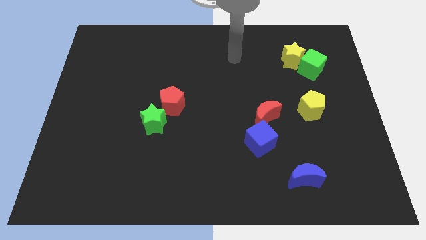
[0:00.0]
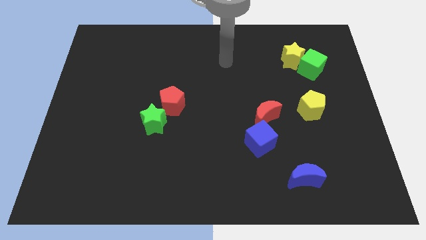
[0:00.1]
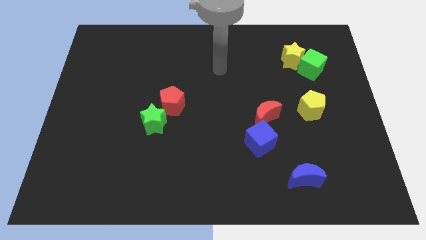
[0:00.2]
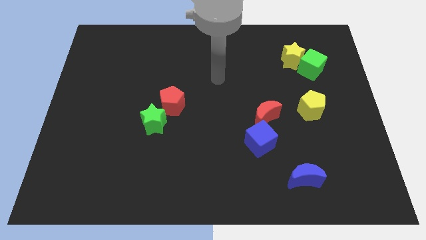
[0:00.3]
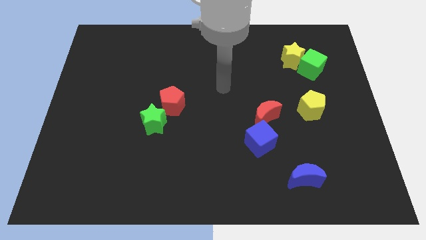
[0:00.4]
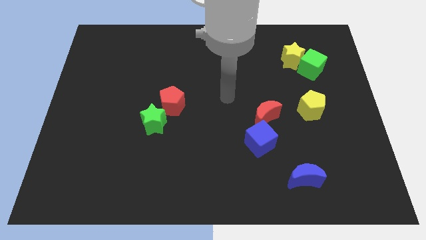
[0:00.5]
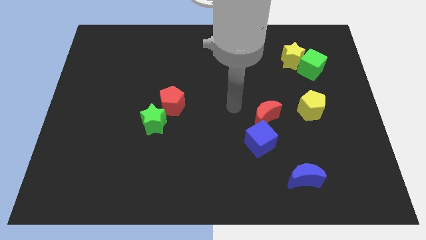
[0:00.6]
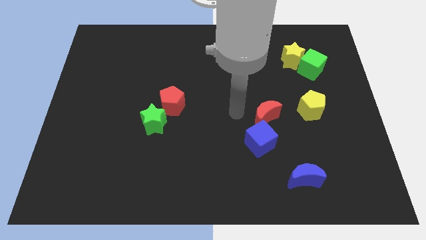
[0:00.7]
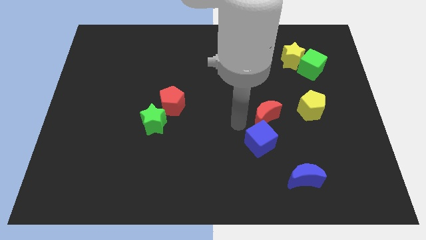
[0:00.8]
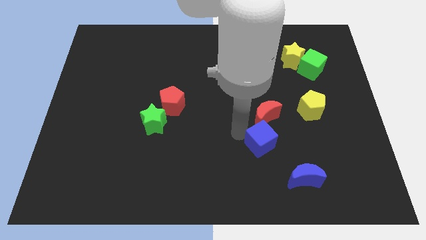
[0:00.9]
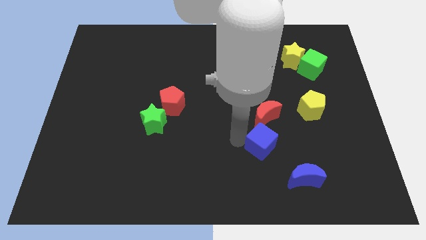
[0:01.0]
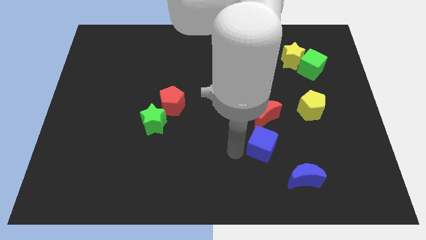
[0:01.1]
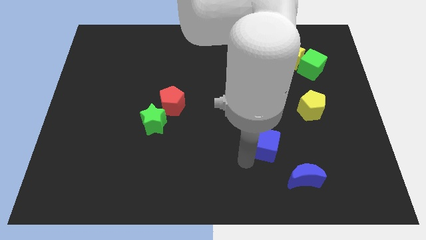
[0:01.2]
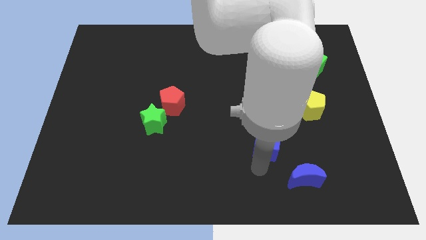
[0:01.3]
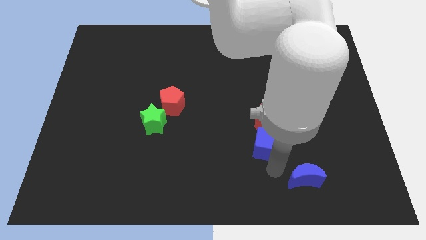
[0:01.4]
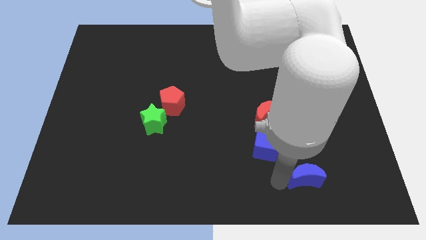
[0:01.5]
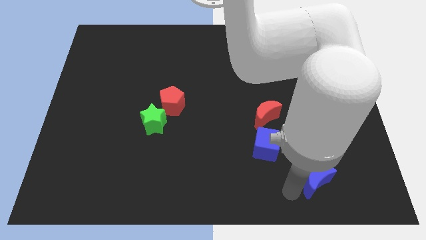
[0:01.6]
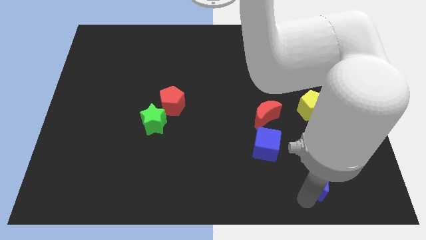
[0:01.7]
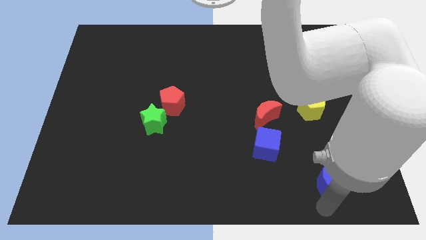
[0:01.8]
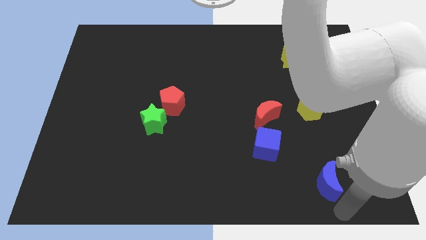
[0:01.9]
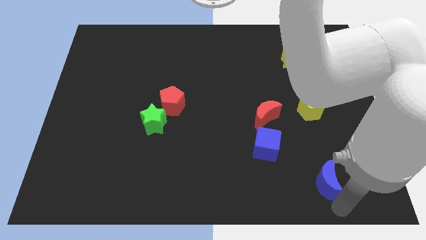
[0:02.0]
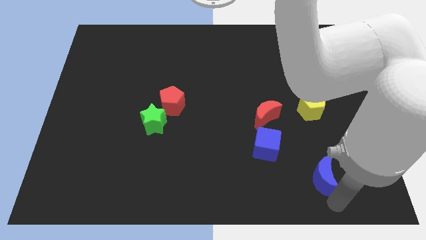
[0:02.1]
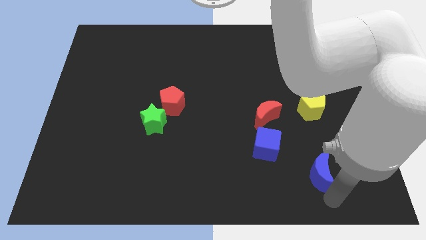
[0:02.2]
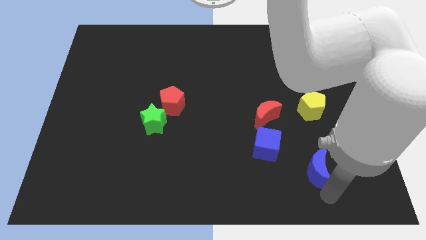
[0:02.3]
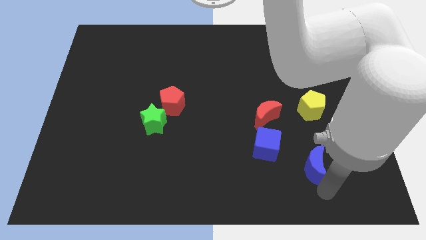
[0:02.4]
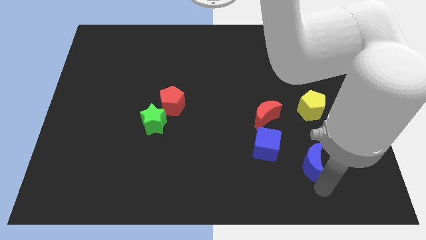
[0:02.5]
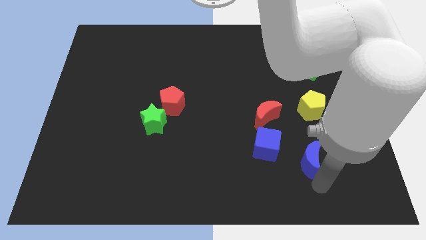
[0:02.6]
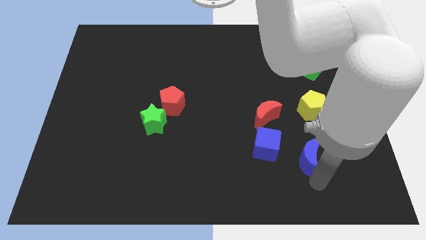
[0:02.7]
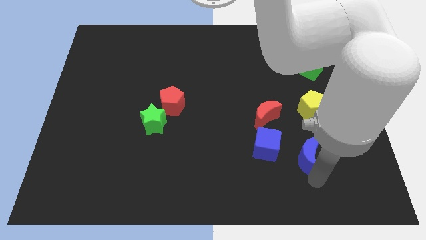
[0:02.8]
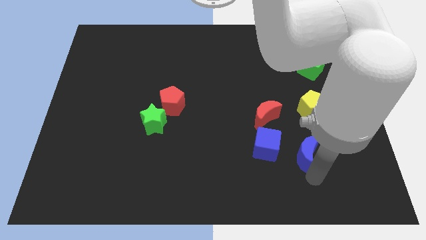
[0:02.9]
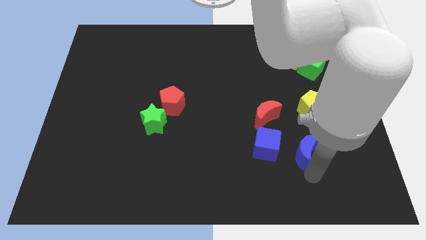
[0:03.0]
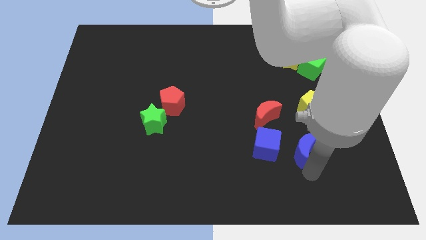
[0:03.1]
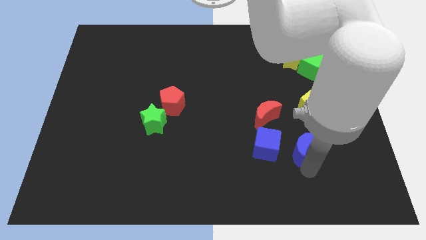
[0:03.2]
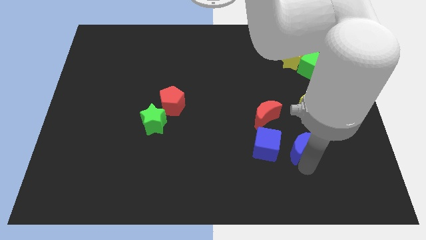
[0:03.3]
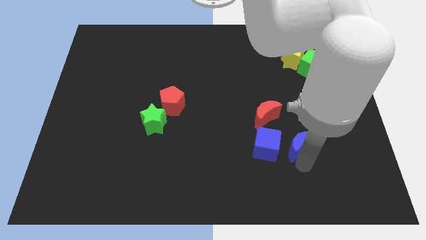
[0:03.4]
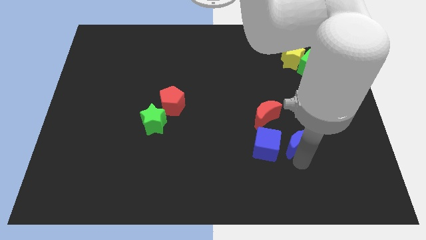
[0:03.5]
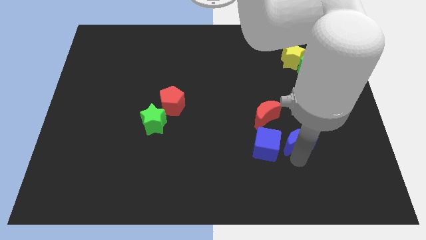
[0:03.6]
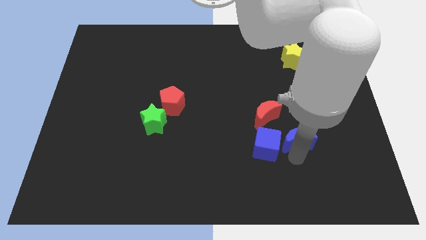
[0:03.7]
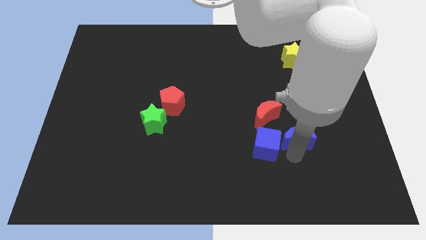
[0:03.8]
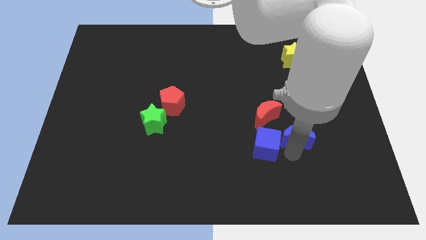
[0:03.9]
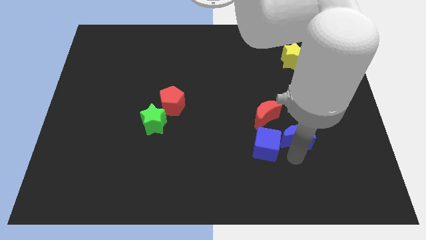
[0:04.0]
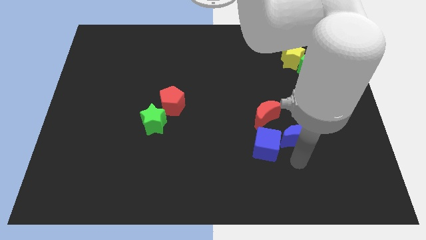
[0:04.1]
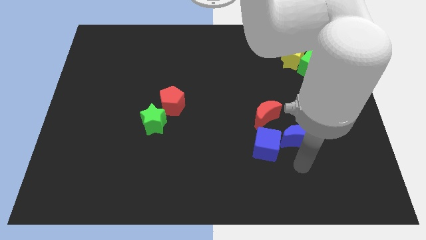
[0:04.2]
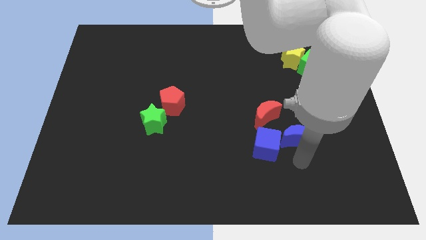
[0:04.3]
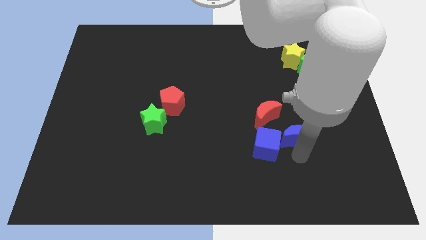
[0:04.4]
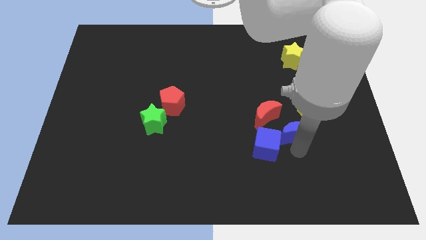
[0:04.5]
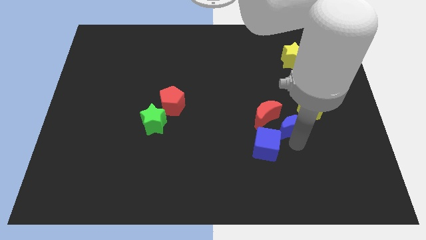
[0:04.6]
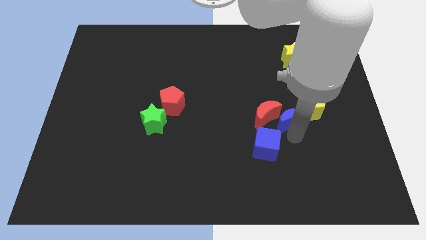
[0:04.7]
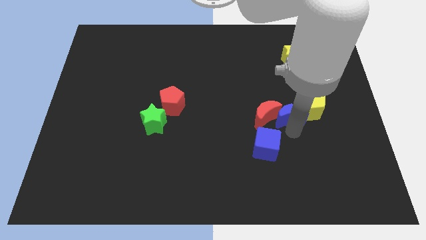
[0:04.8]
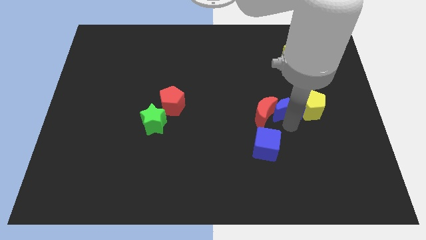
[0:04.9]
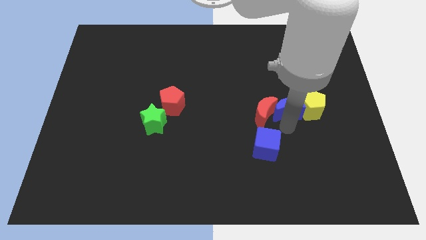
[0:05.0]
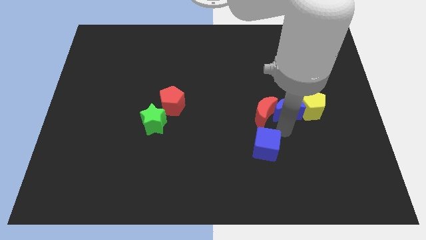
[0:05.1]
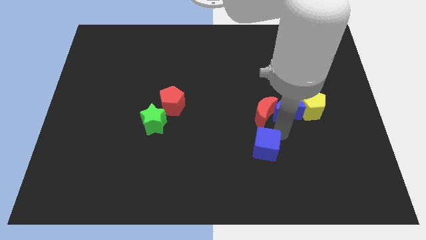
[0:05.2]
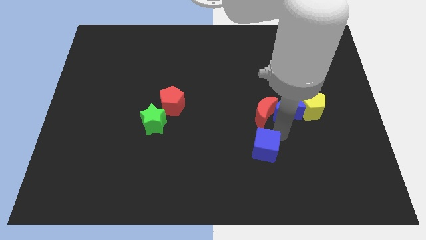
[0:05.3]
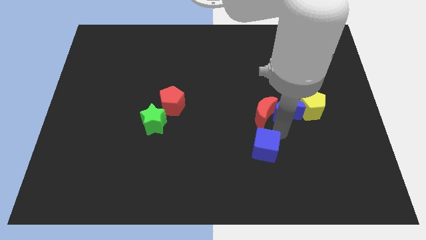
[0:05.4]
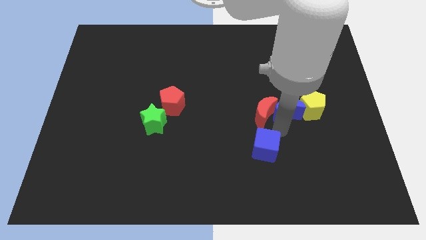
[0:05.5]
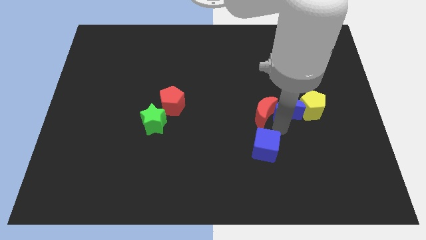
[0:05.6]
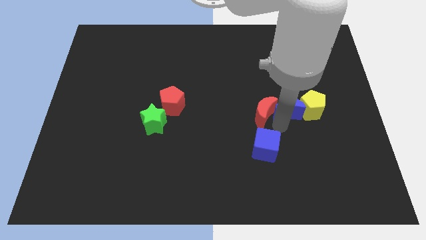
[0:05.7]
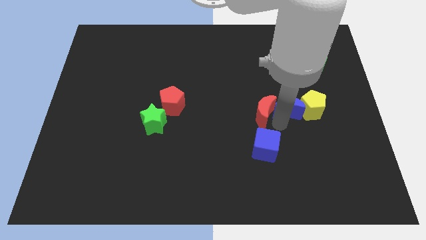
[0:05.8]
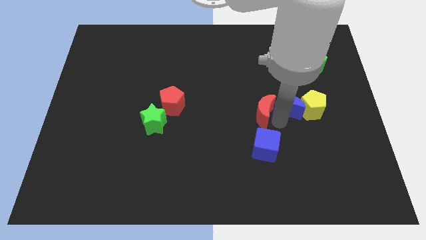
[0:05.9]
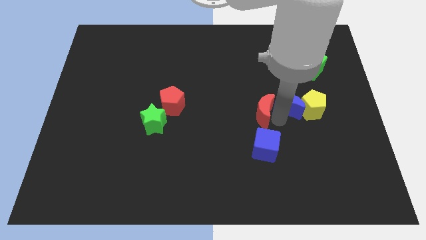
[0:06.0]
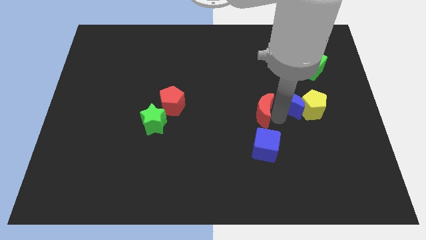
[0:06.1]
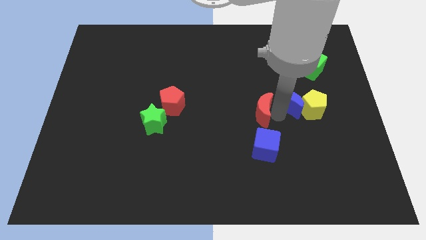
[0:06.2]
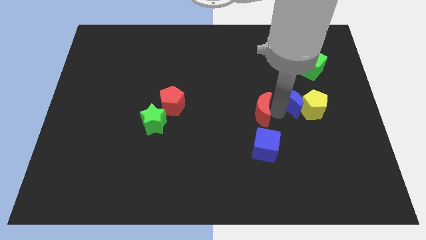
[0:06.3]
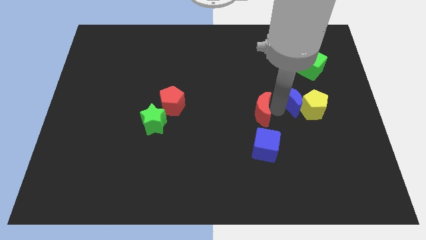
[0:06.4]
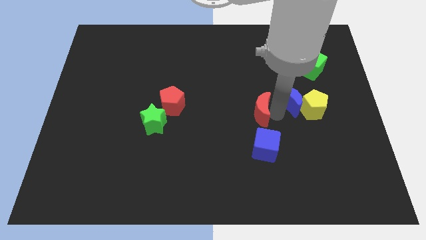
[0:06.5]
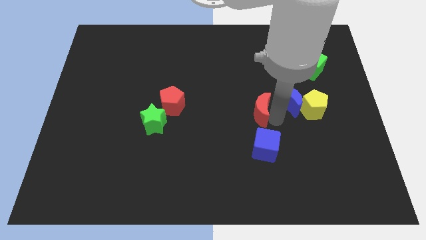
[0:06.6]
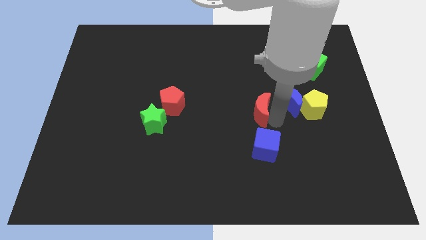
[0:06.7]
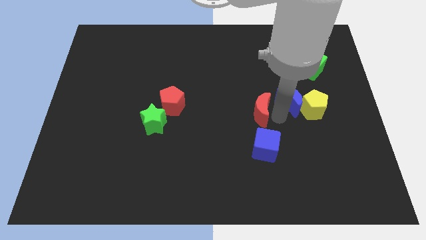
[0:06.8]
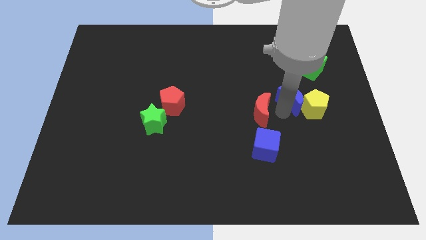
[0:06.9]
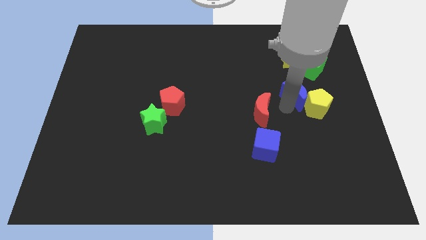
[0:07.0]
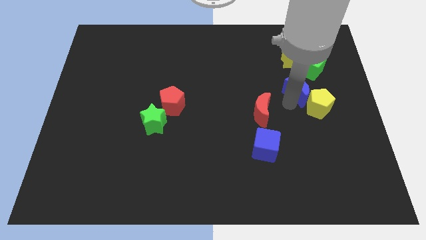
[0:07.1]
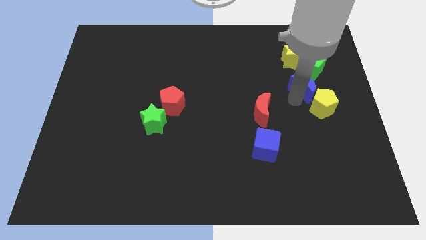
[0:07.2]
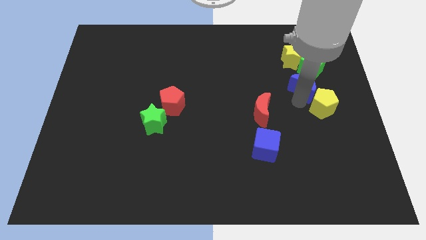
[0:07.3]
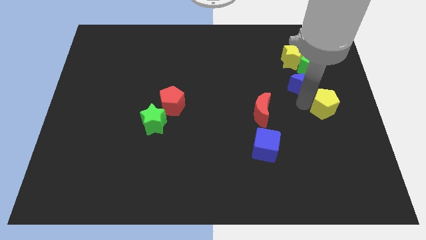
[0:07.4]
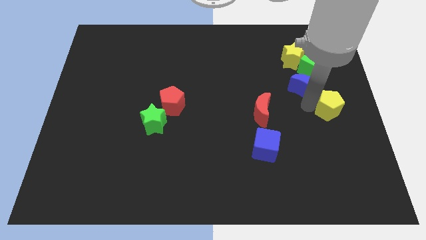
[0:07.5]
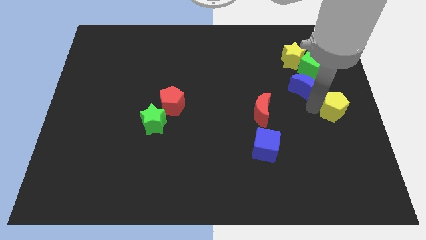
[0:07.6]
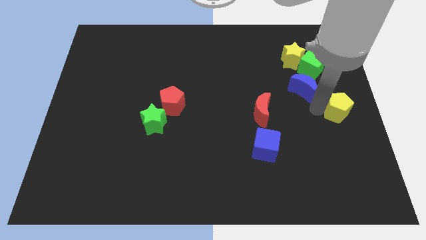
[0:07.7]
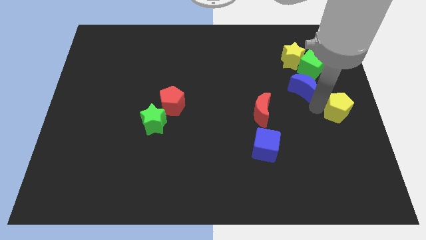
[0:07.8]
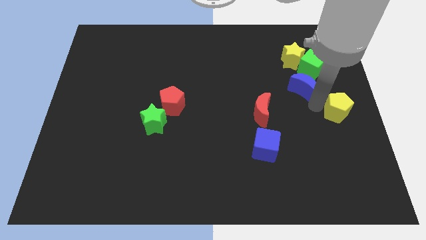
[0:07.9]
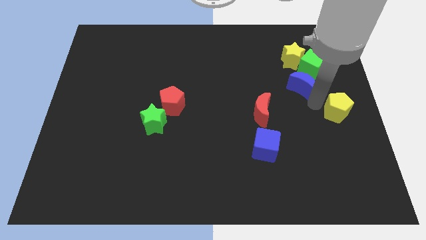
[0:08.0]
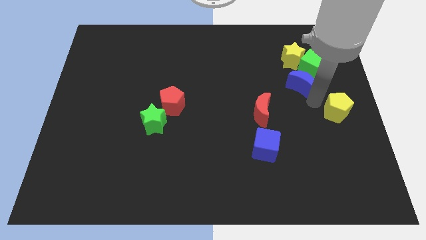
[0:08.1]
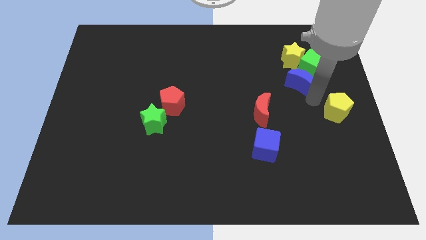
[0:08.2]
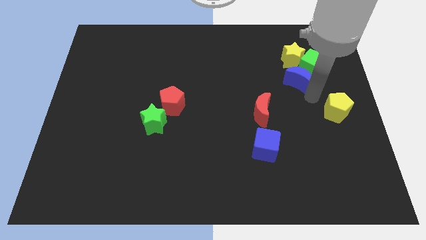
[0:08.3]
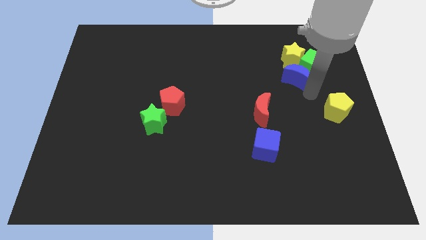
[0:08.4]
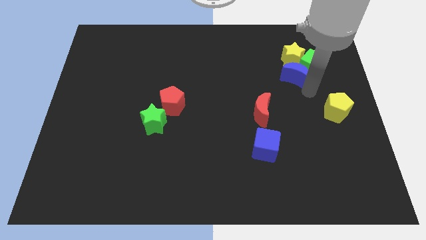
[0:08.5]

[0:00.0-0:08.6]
slide the blue moon towards the yellow star
